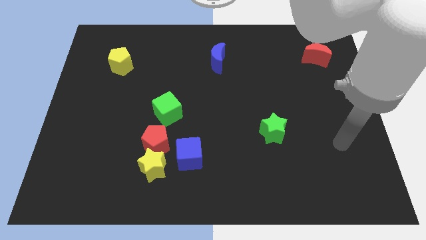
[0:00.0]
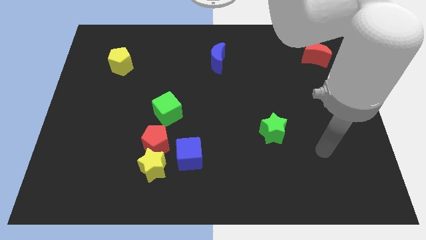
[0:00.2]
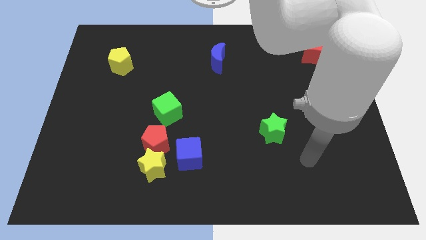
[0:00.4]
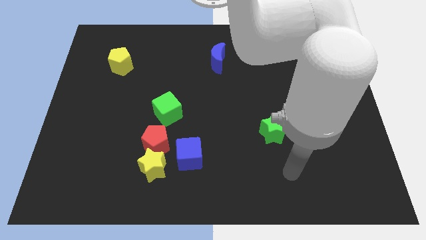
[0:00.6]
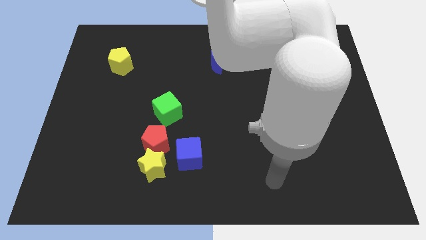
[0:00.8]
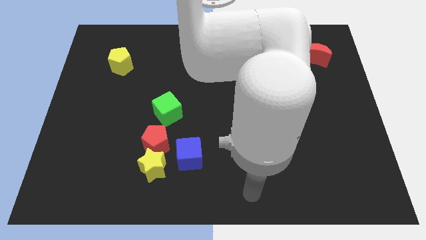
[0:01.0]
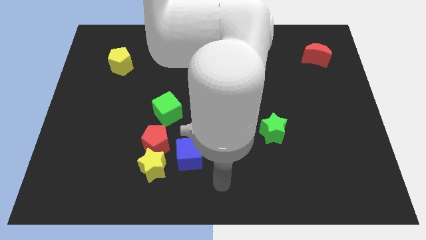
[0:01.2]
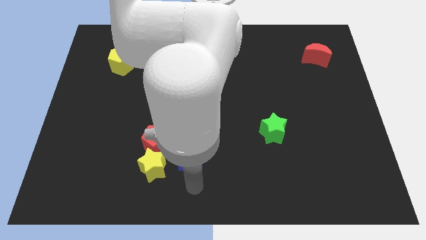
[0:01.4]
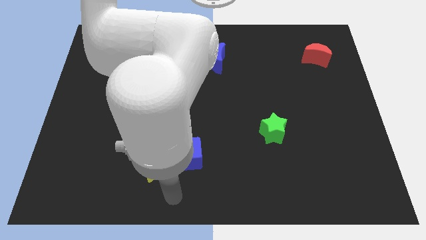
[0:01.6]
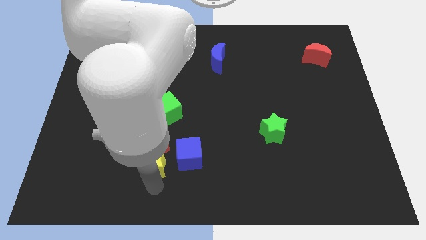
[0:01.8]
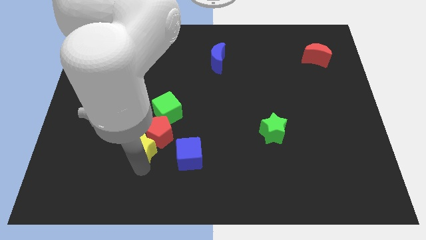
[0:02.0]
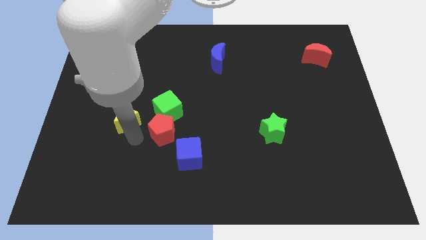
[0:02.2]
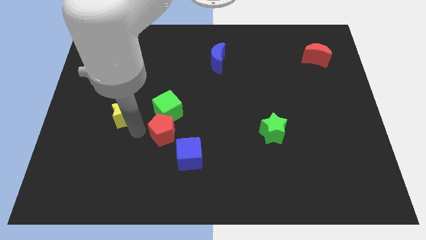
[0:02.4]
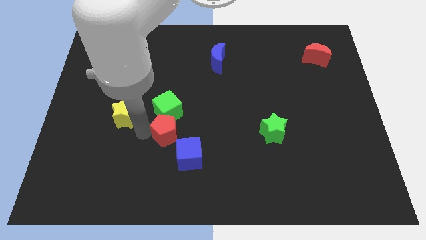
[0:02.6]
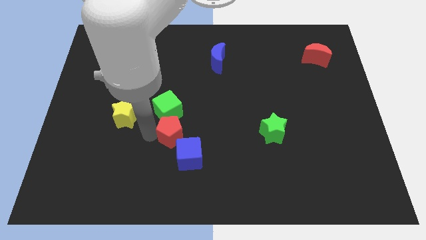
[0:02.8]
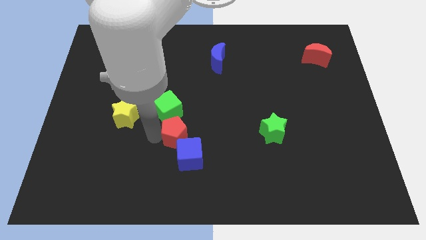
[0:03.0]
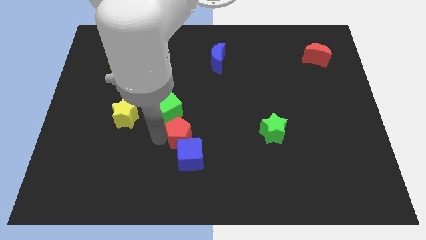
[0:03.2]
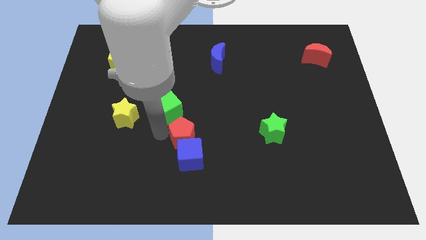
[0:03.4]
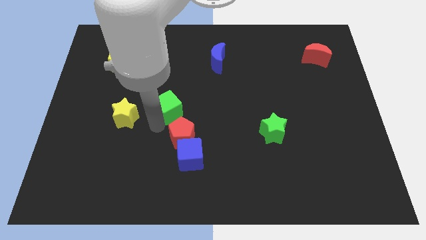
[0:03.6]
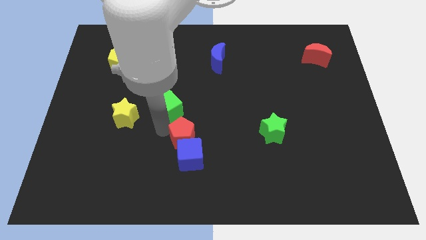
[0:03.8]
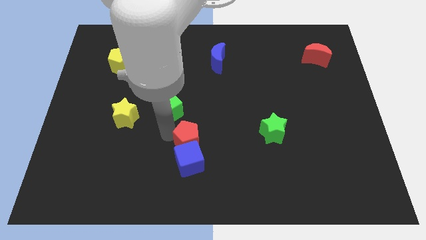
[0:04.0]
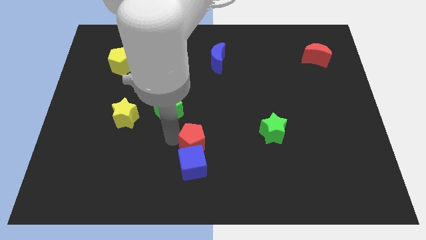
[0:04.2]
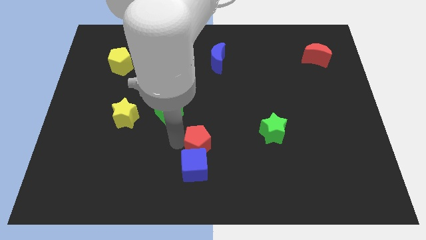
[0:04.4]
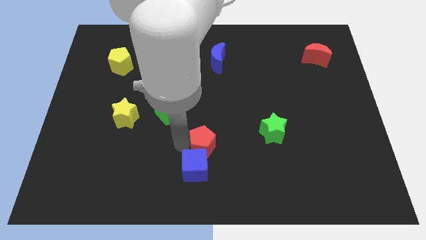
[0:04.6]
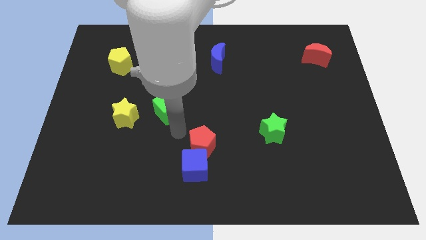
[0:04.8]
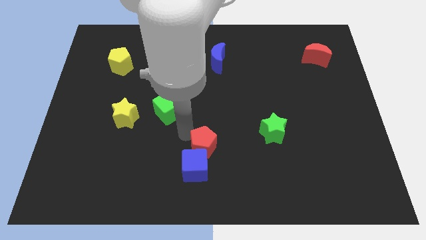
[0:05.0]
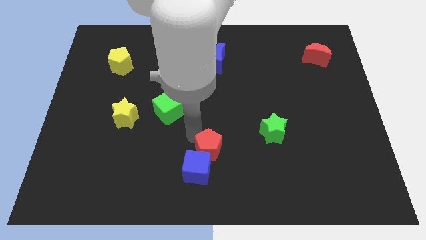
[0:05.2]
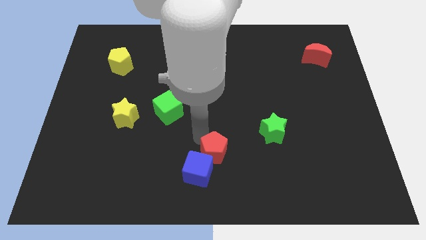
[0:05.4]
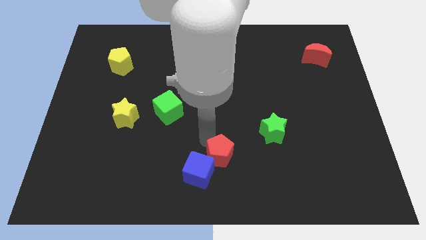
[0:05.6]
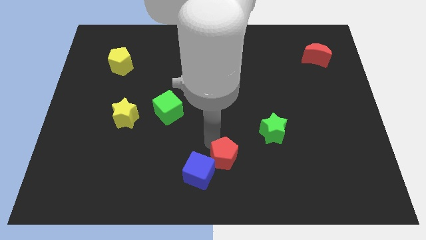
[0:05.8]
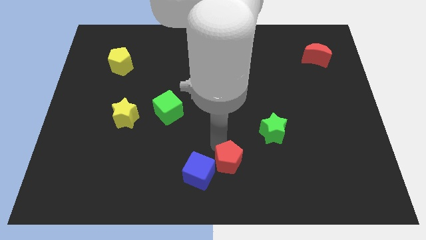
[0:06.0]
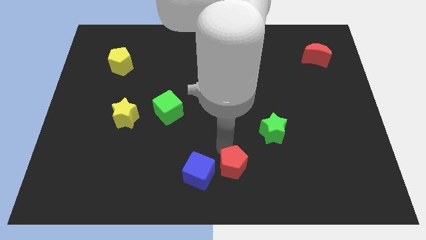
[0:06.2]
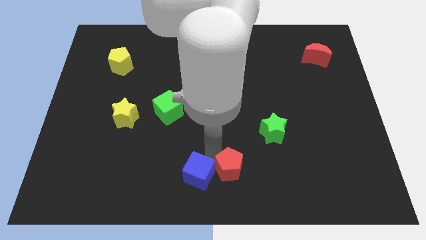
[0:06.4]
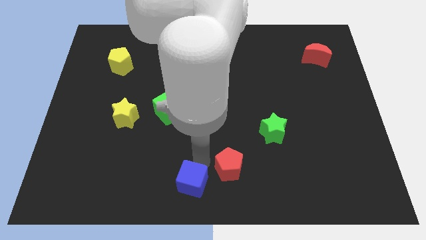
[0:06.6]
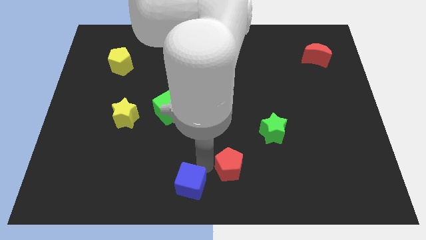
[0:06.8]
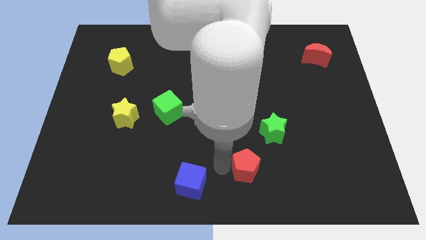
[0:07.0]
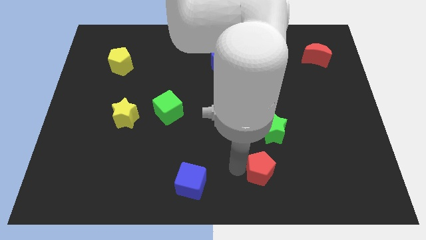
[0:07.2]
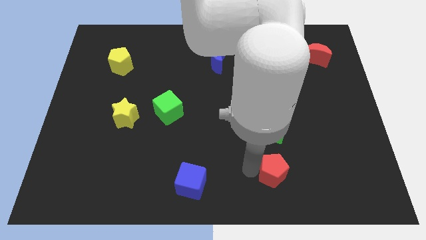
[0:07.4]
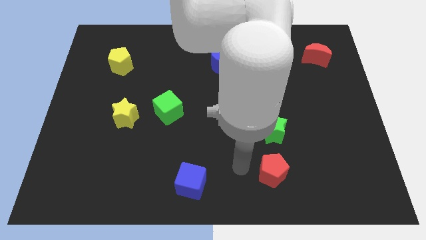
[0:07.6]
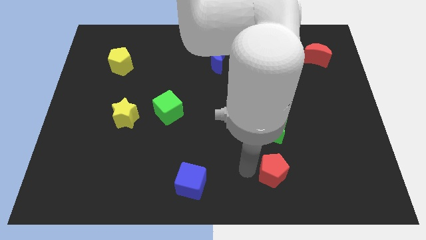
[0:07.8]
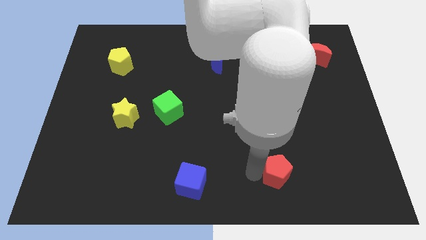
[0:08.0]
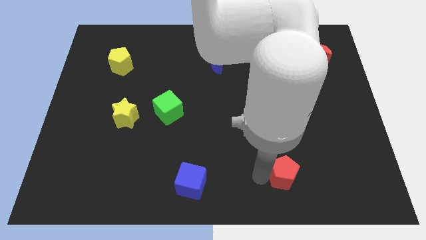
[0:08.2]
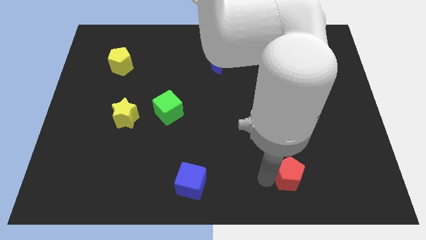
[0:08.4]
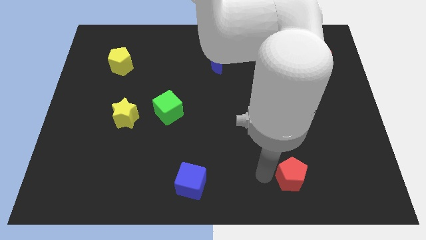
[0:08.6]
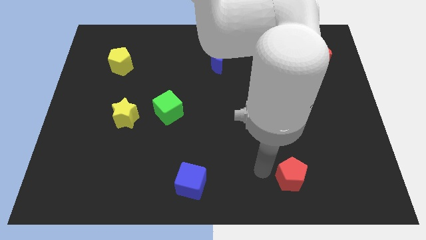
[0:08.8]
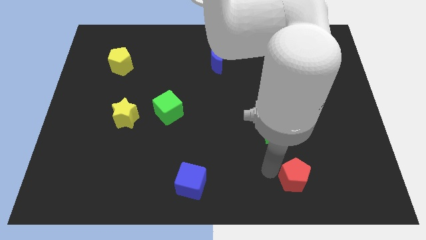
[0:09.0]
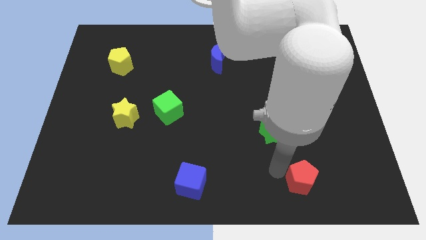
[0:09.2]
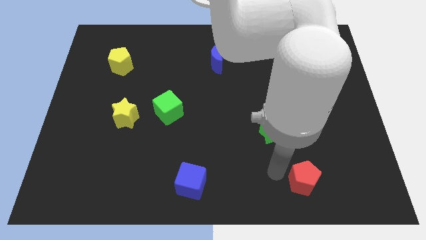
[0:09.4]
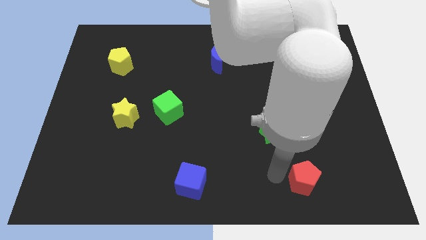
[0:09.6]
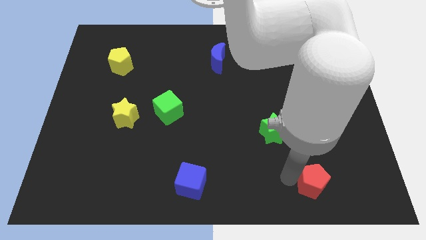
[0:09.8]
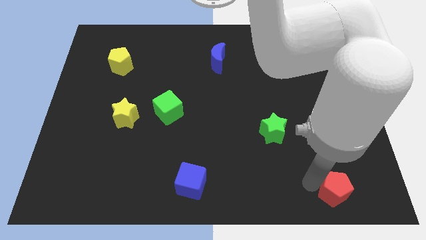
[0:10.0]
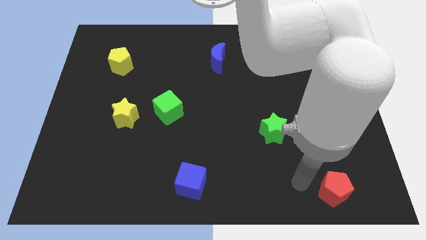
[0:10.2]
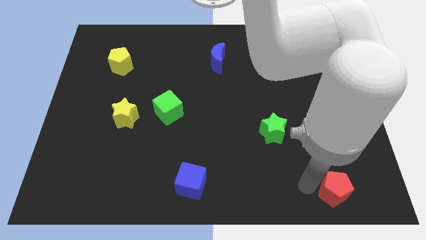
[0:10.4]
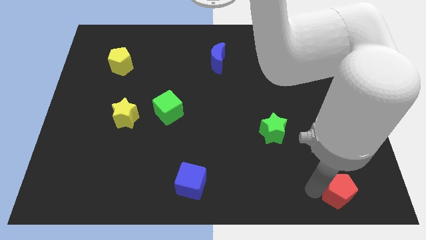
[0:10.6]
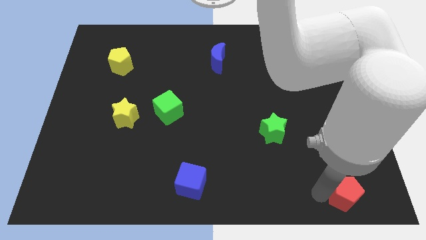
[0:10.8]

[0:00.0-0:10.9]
slide the red pentagon to the lower right corner

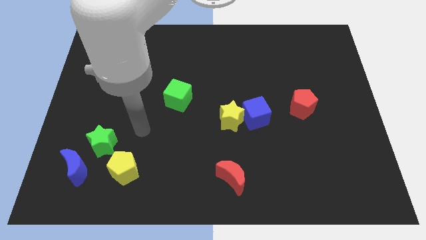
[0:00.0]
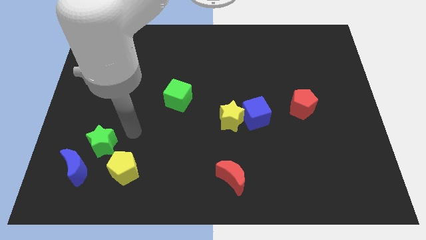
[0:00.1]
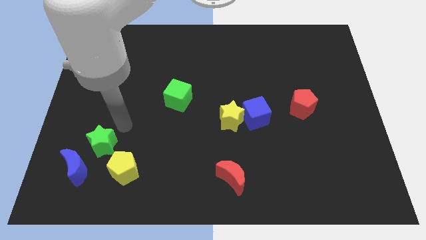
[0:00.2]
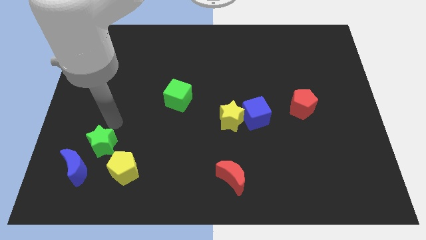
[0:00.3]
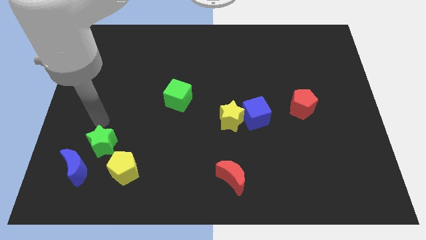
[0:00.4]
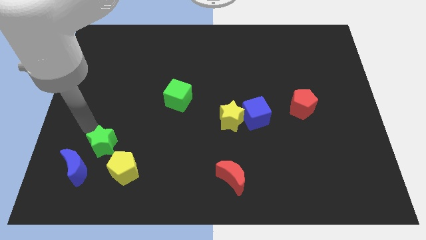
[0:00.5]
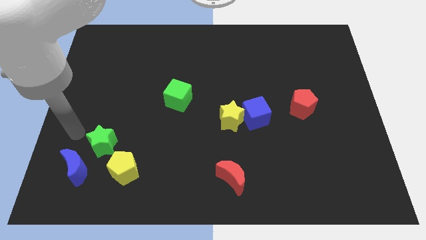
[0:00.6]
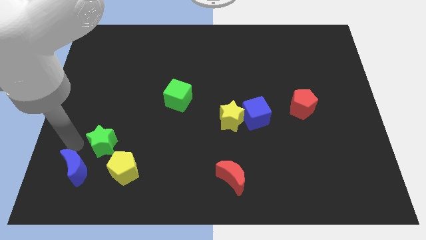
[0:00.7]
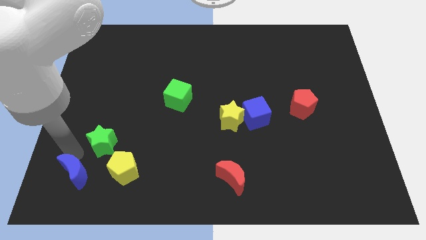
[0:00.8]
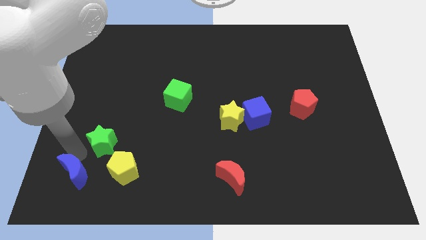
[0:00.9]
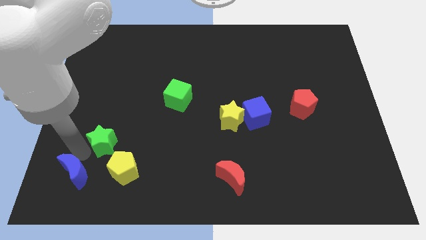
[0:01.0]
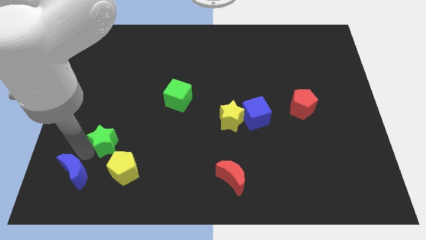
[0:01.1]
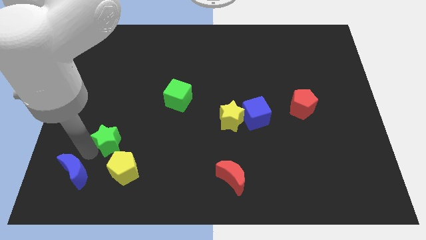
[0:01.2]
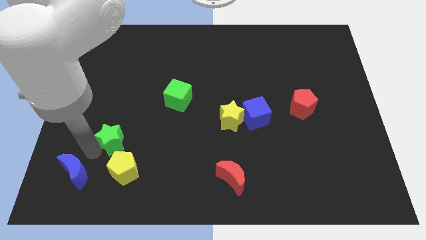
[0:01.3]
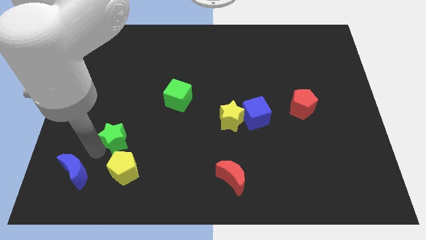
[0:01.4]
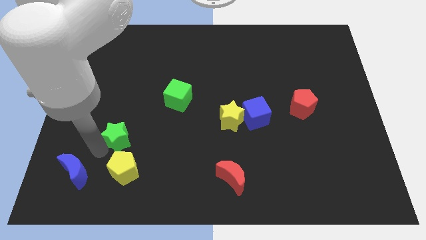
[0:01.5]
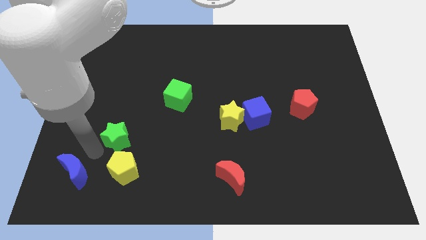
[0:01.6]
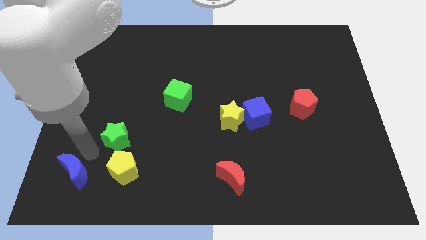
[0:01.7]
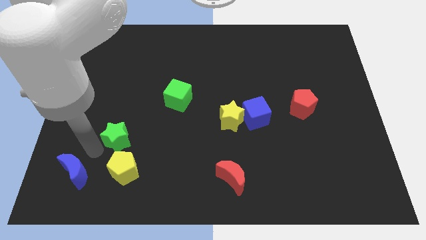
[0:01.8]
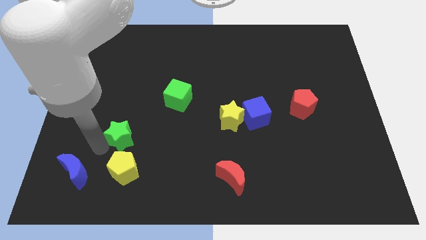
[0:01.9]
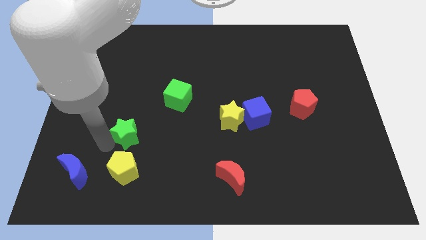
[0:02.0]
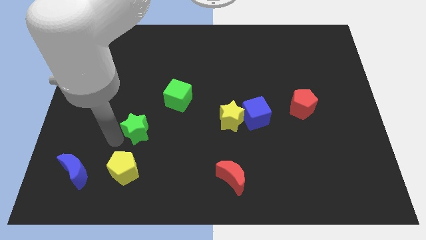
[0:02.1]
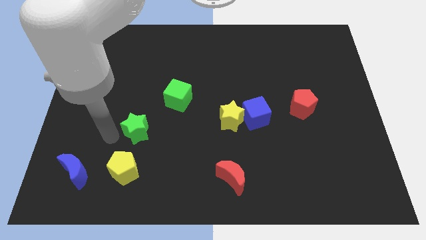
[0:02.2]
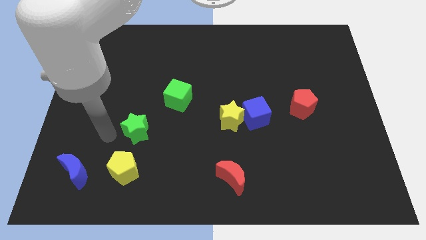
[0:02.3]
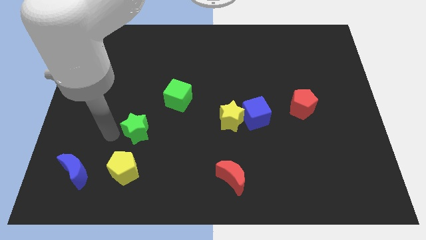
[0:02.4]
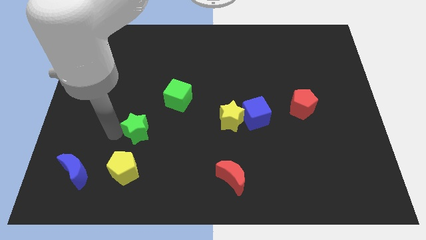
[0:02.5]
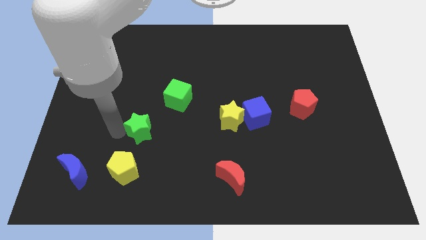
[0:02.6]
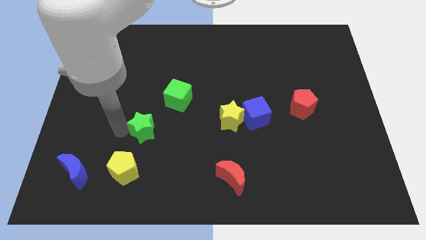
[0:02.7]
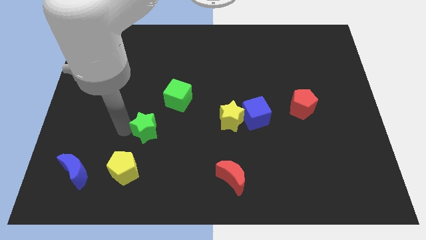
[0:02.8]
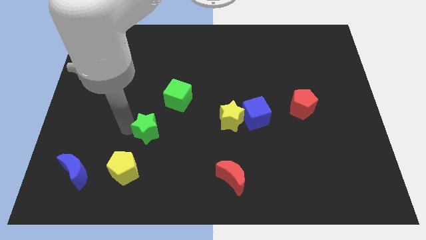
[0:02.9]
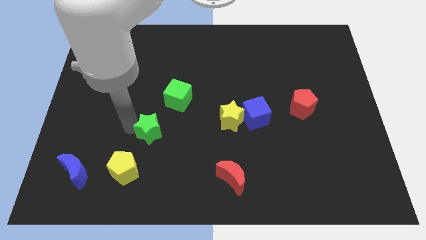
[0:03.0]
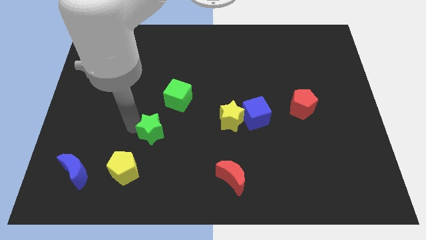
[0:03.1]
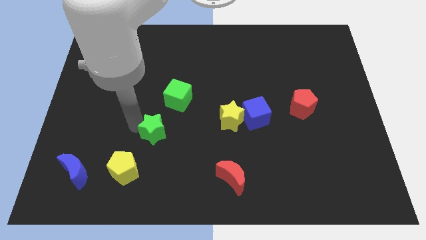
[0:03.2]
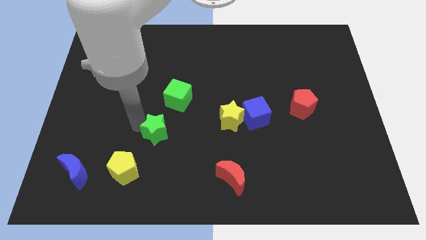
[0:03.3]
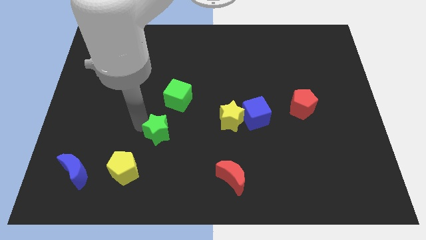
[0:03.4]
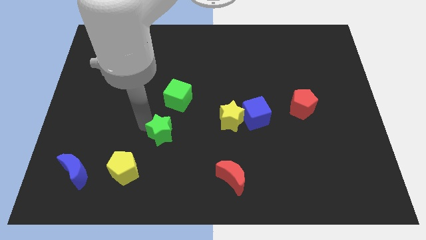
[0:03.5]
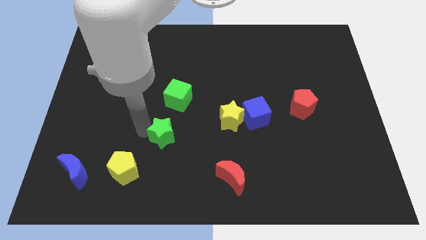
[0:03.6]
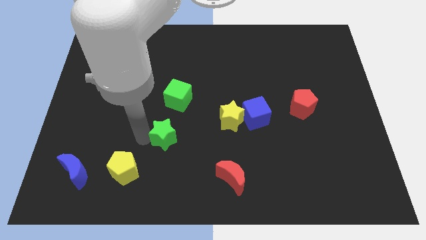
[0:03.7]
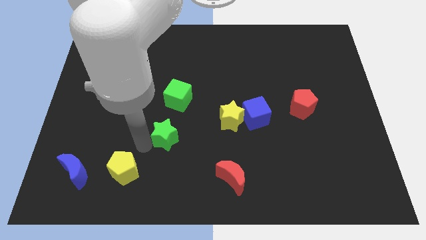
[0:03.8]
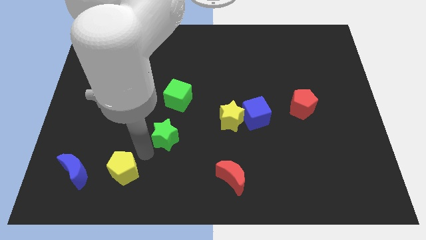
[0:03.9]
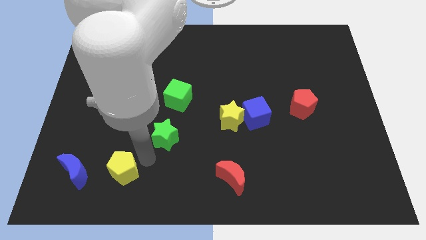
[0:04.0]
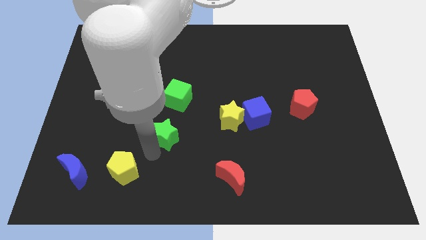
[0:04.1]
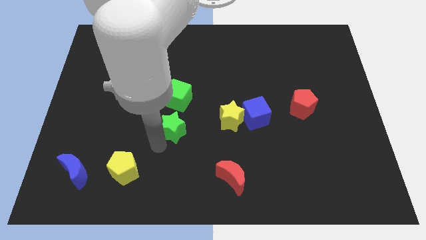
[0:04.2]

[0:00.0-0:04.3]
push the green star to the middle
